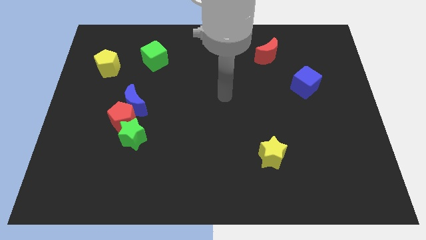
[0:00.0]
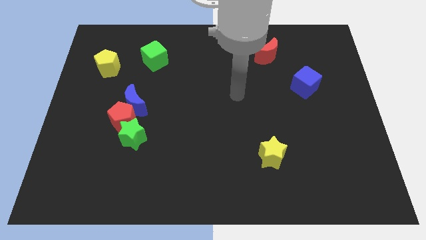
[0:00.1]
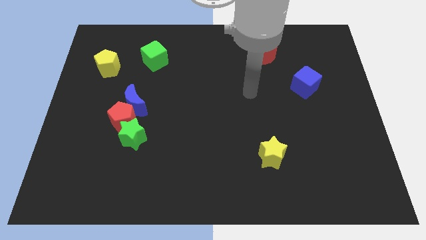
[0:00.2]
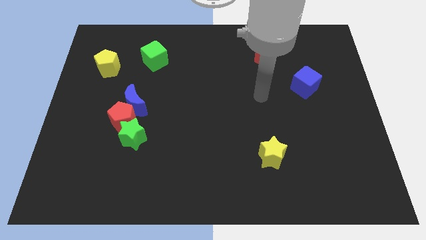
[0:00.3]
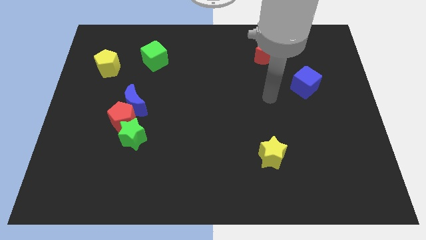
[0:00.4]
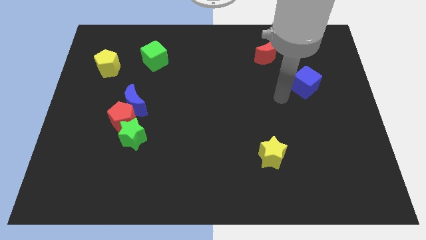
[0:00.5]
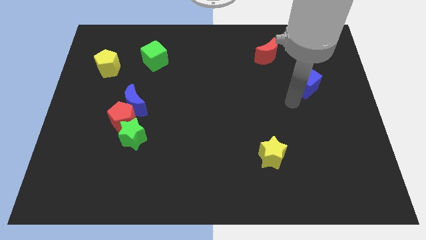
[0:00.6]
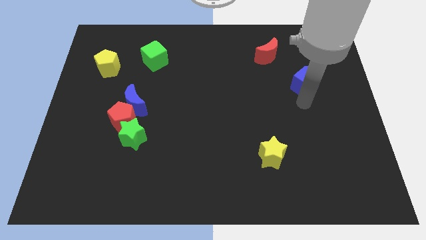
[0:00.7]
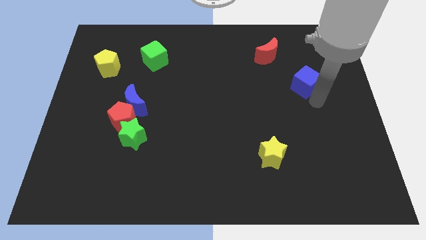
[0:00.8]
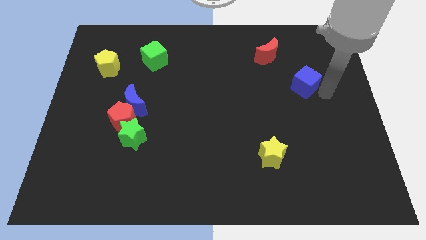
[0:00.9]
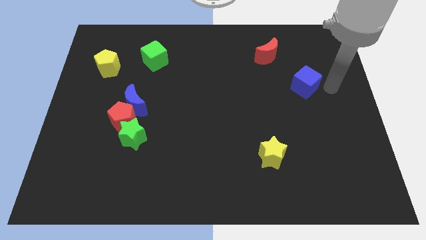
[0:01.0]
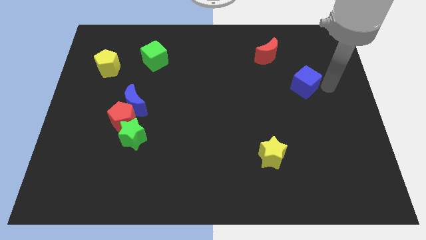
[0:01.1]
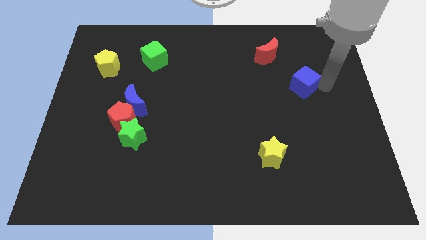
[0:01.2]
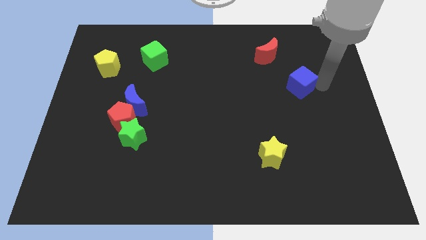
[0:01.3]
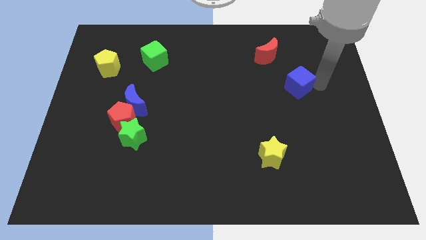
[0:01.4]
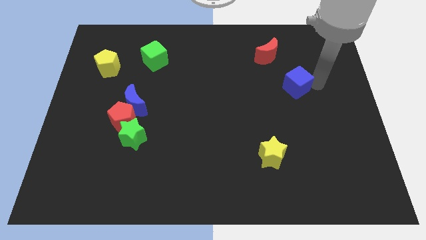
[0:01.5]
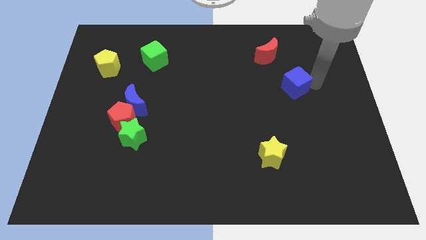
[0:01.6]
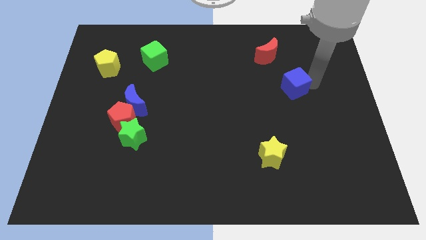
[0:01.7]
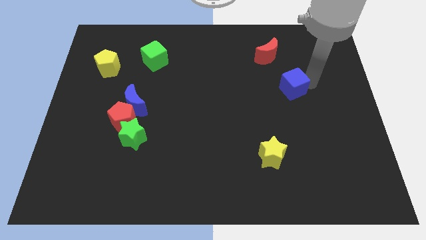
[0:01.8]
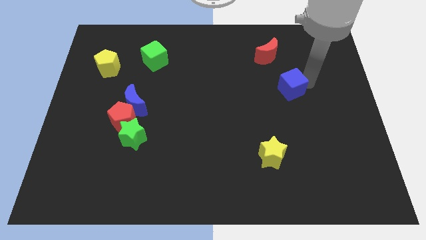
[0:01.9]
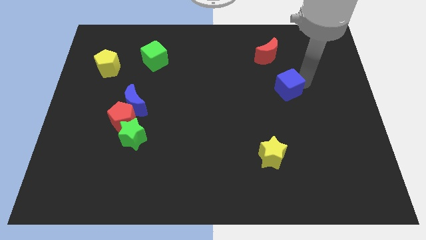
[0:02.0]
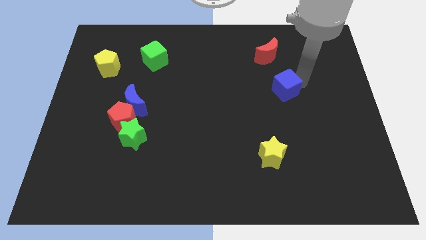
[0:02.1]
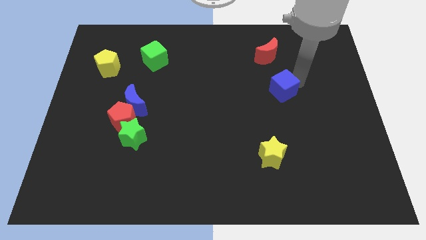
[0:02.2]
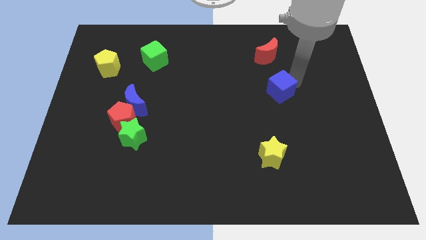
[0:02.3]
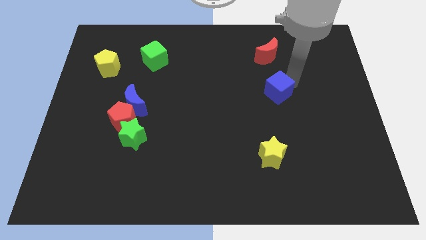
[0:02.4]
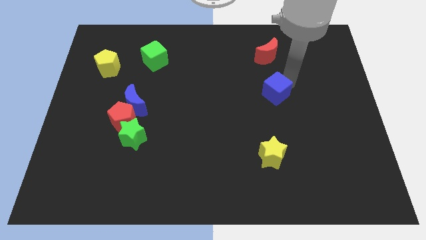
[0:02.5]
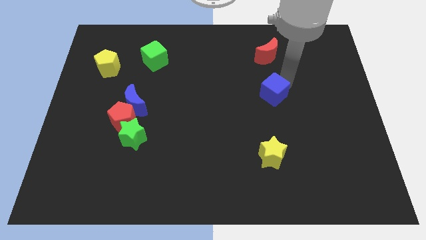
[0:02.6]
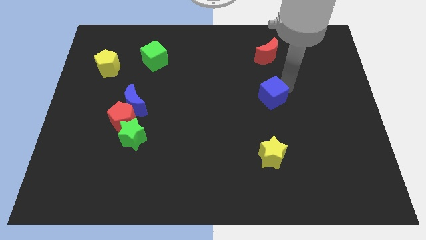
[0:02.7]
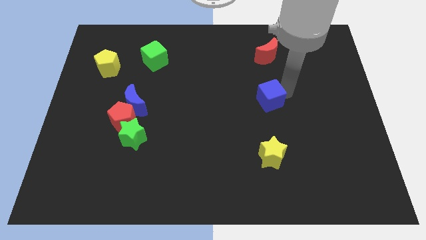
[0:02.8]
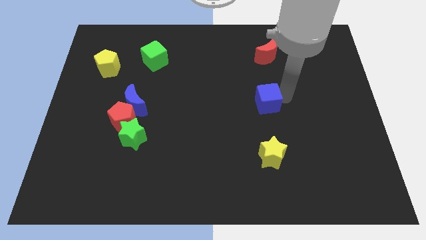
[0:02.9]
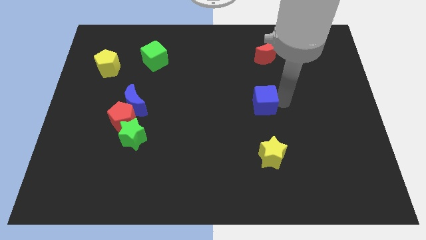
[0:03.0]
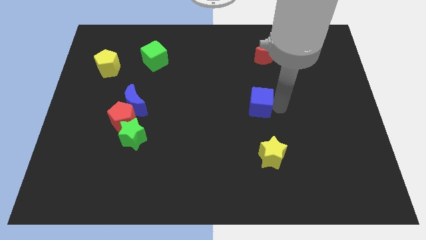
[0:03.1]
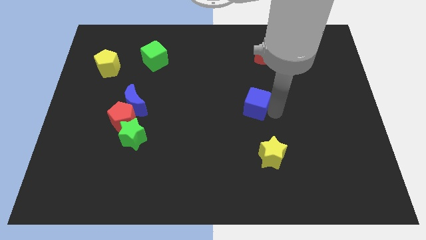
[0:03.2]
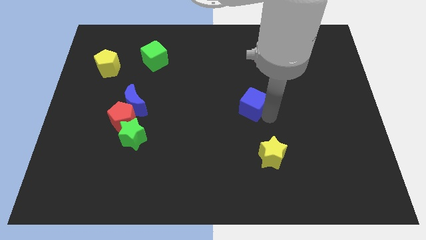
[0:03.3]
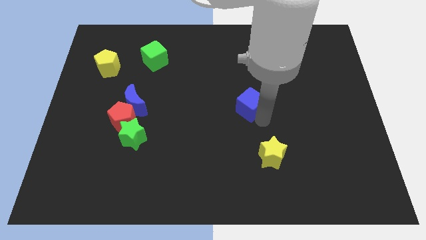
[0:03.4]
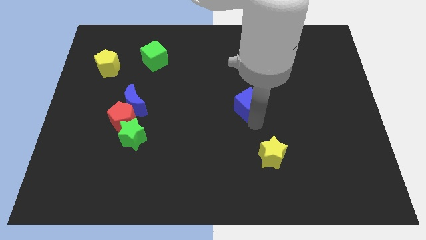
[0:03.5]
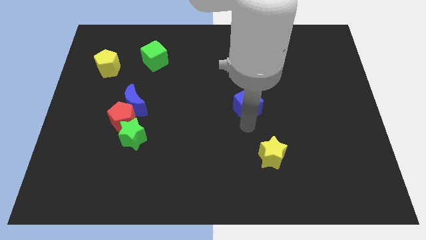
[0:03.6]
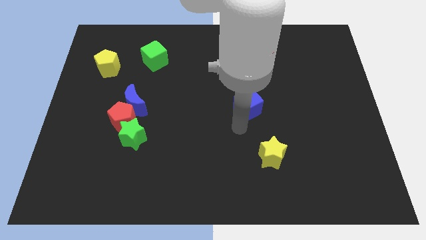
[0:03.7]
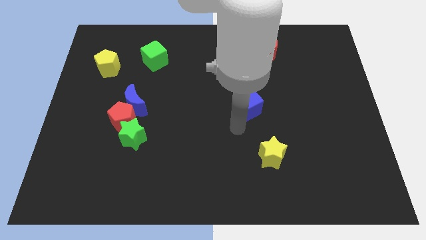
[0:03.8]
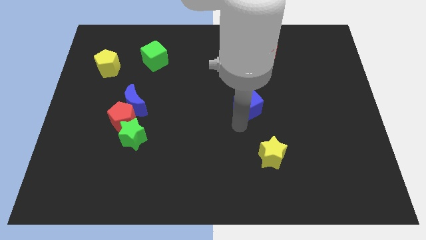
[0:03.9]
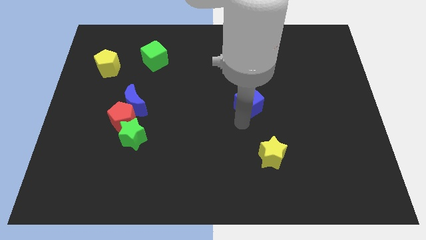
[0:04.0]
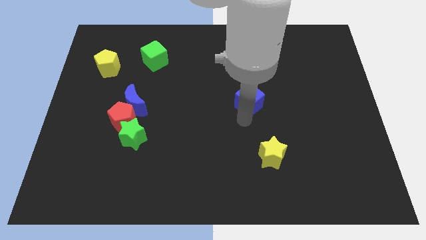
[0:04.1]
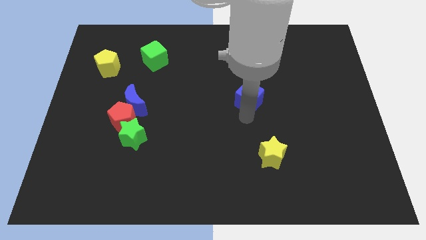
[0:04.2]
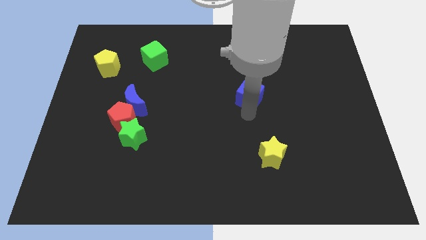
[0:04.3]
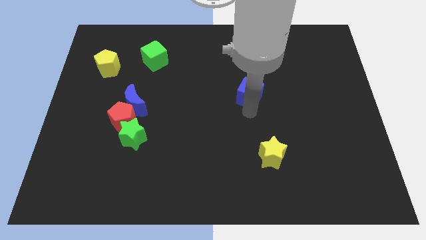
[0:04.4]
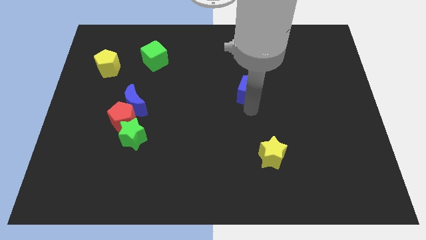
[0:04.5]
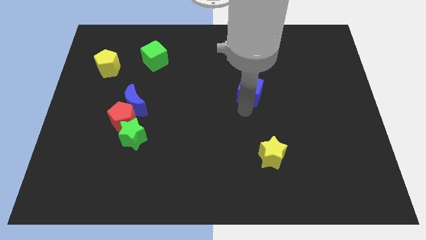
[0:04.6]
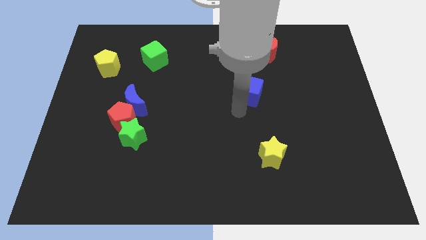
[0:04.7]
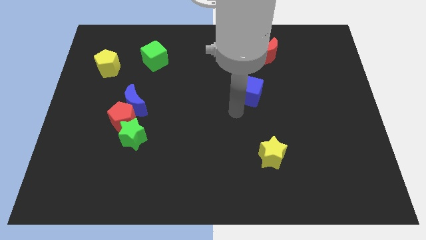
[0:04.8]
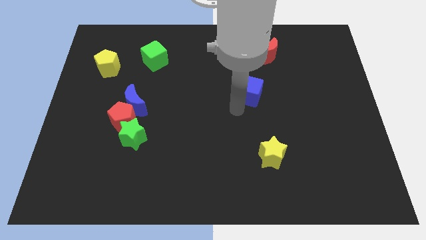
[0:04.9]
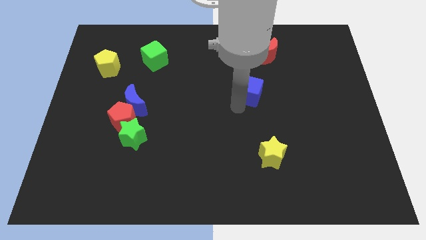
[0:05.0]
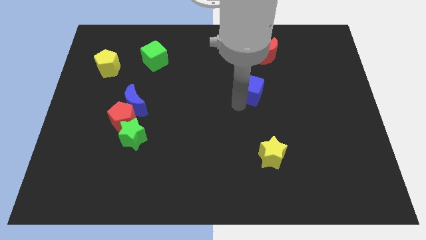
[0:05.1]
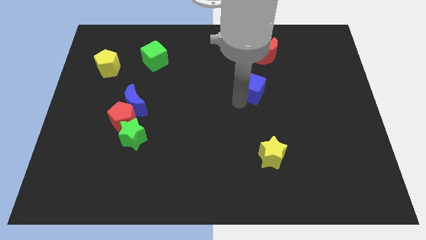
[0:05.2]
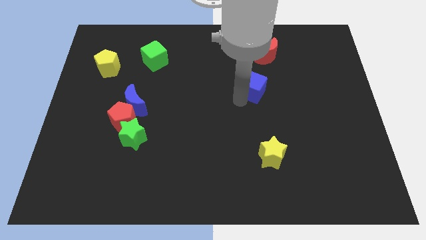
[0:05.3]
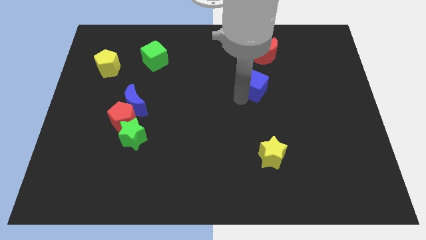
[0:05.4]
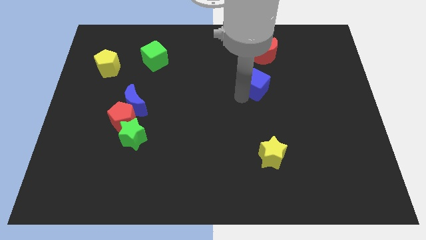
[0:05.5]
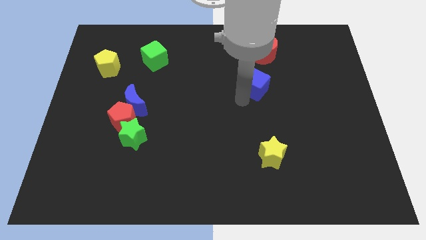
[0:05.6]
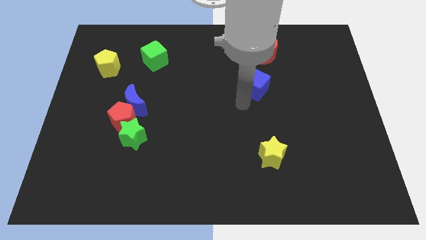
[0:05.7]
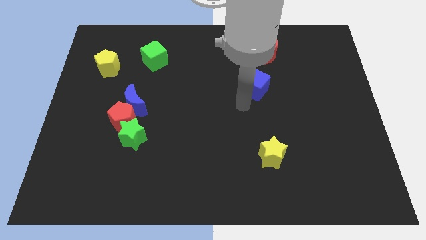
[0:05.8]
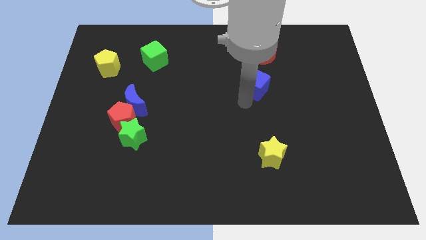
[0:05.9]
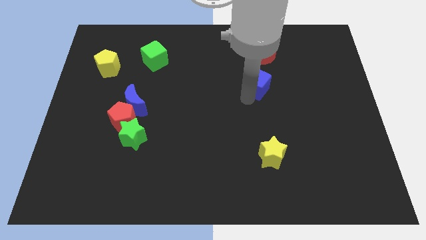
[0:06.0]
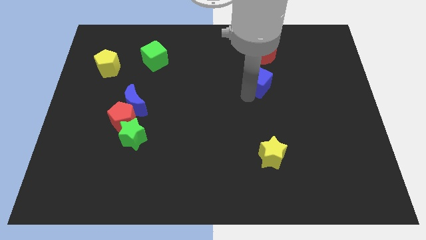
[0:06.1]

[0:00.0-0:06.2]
move the blue cube to the bottom left side of the red moon
